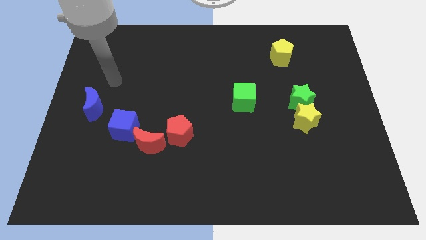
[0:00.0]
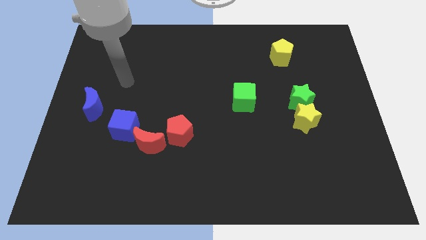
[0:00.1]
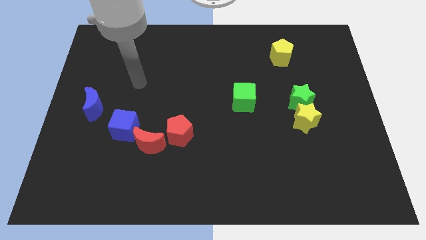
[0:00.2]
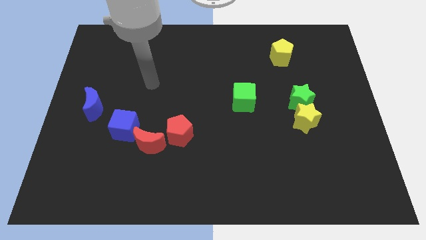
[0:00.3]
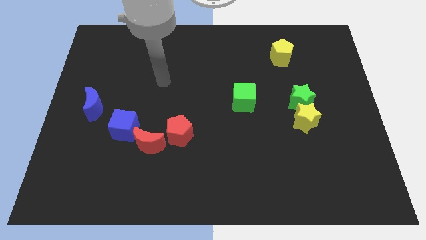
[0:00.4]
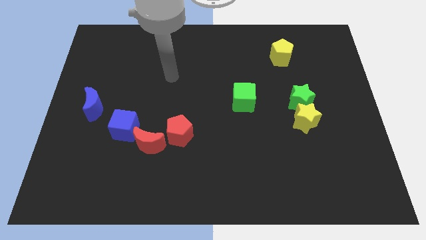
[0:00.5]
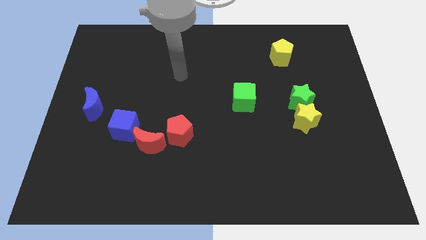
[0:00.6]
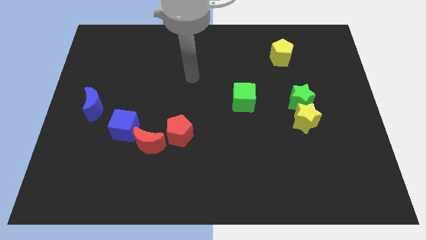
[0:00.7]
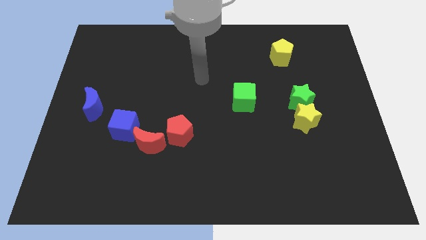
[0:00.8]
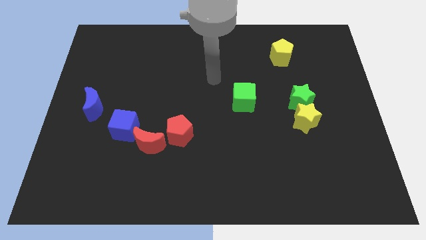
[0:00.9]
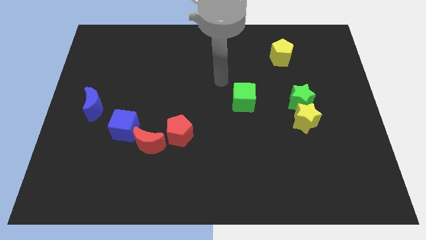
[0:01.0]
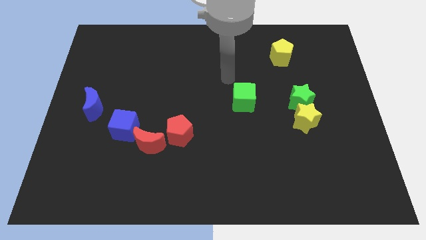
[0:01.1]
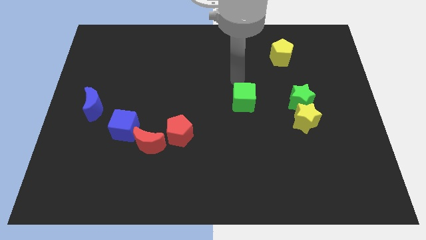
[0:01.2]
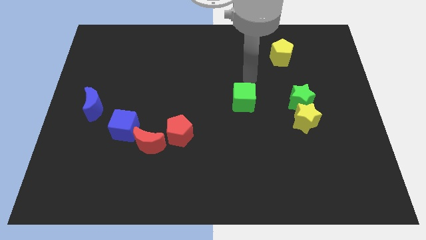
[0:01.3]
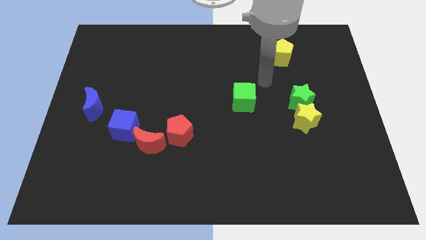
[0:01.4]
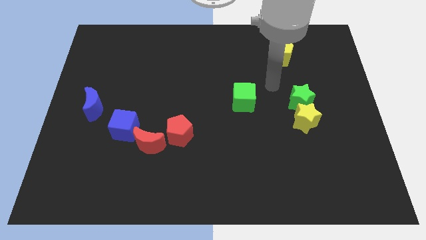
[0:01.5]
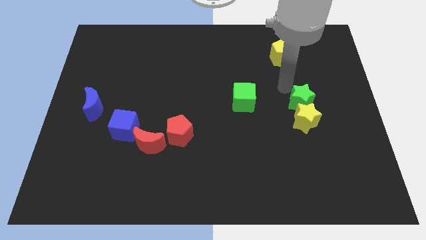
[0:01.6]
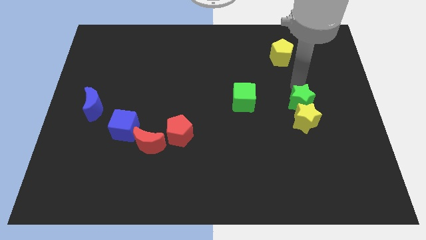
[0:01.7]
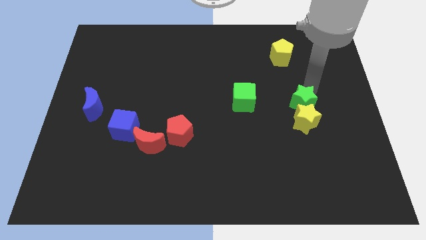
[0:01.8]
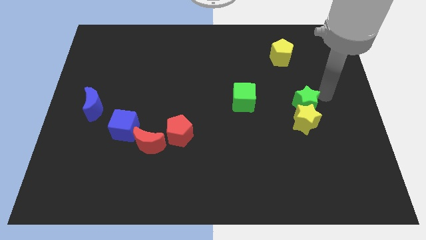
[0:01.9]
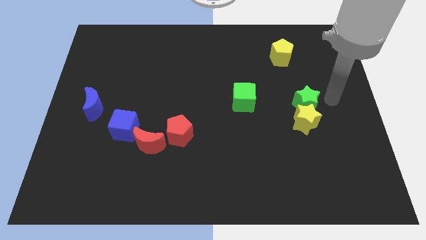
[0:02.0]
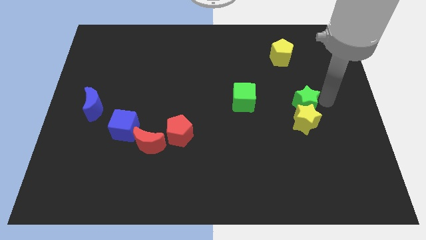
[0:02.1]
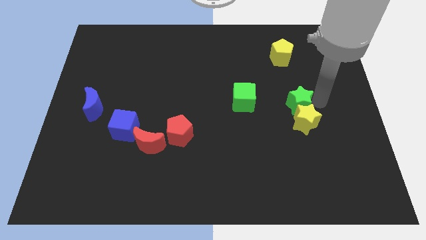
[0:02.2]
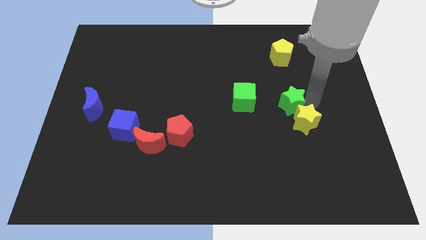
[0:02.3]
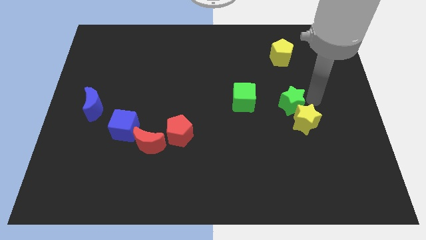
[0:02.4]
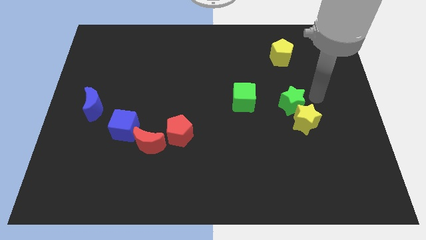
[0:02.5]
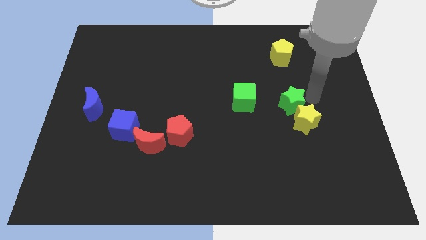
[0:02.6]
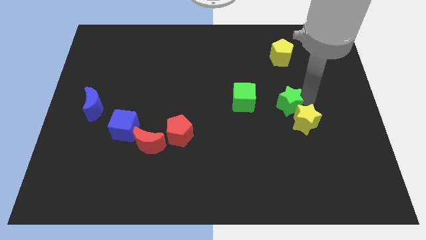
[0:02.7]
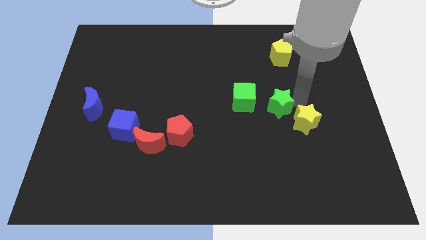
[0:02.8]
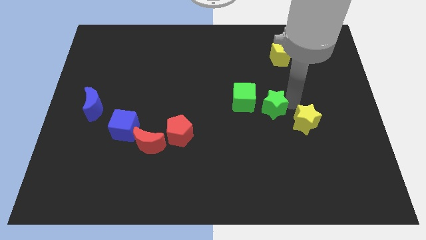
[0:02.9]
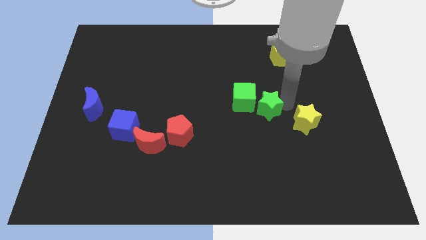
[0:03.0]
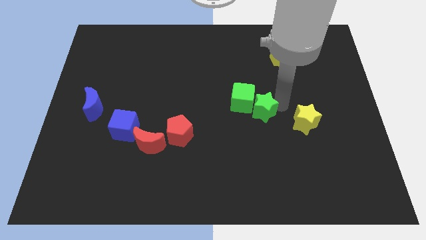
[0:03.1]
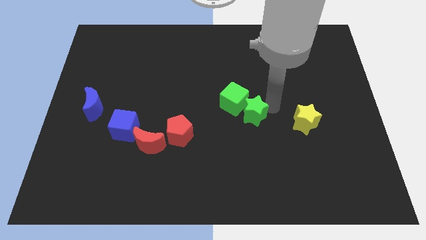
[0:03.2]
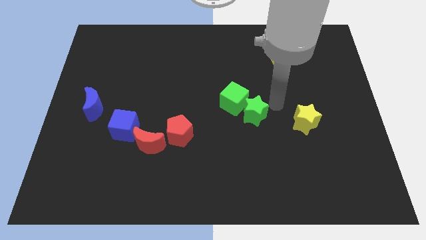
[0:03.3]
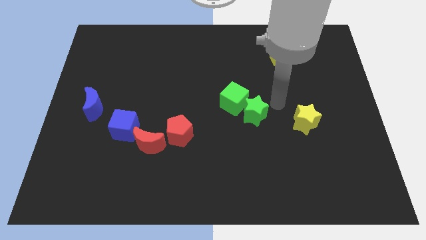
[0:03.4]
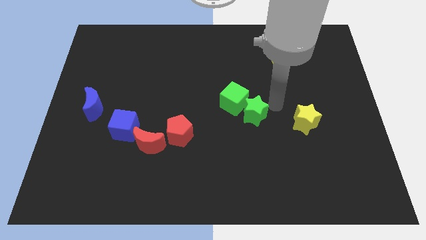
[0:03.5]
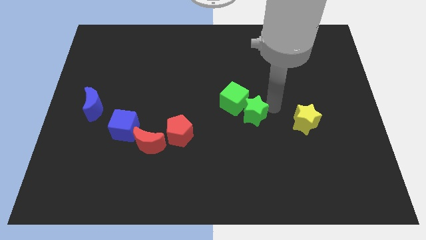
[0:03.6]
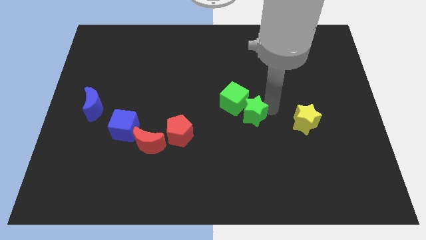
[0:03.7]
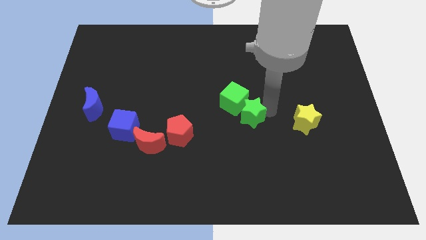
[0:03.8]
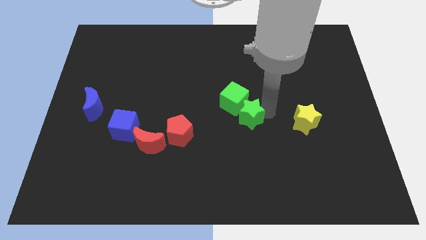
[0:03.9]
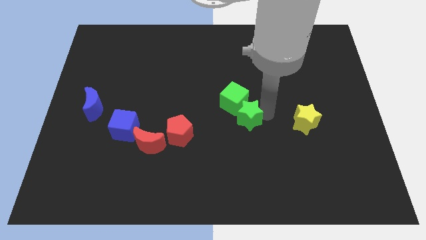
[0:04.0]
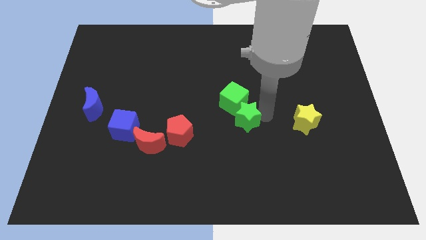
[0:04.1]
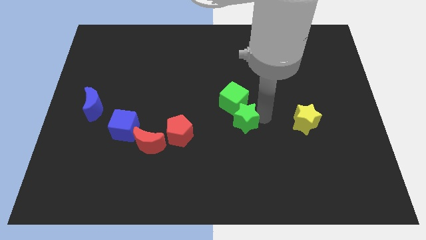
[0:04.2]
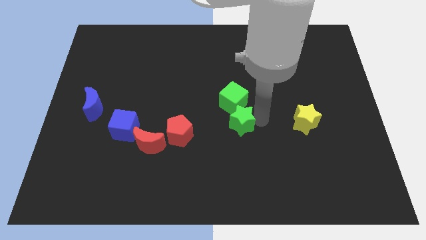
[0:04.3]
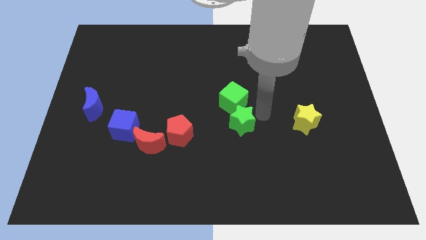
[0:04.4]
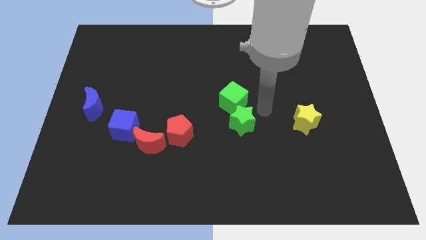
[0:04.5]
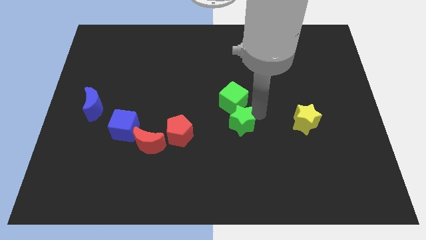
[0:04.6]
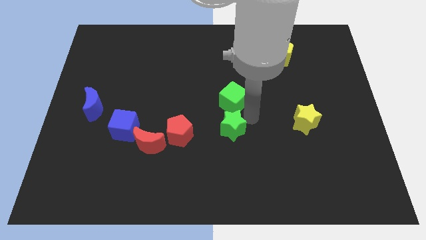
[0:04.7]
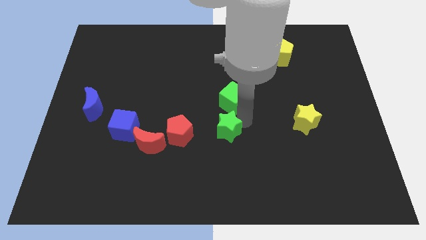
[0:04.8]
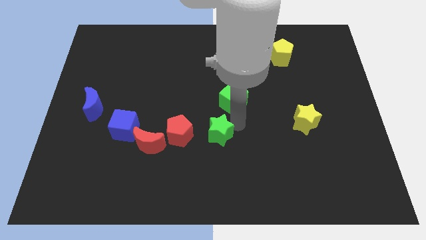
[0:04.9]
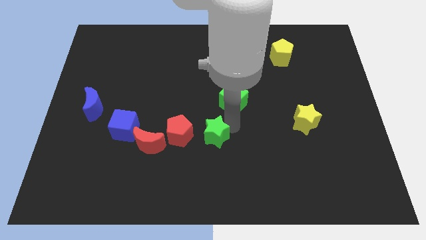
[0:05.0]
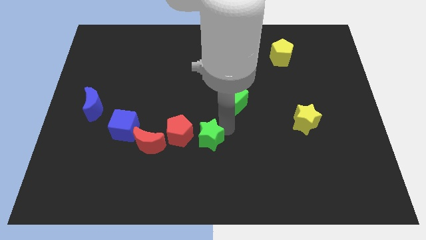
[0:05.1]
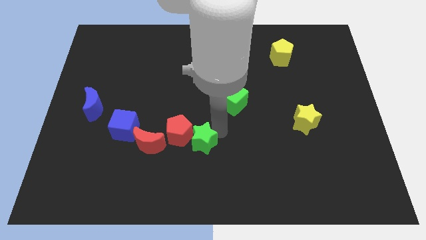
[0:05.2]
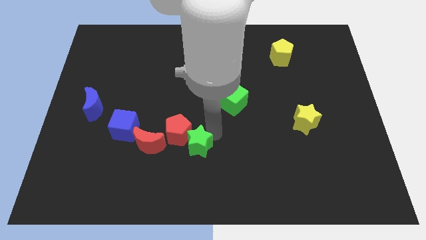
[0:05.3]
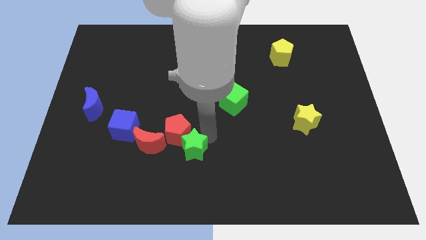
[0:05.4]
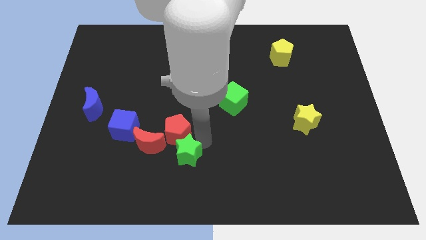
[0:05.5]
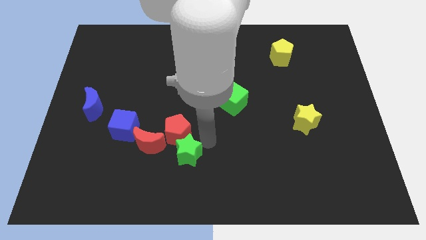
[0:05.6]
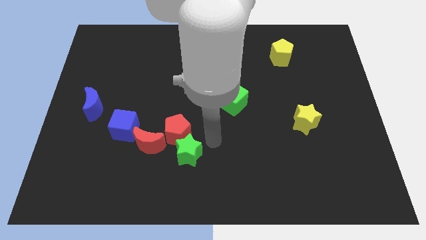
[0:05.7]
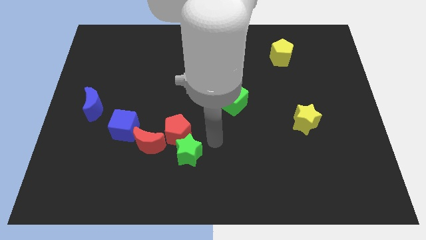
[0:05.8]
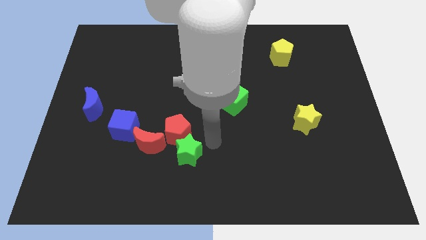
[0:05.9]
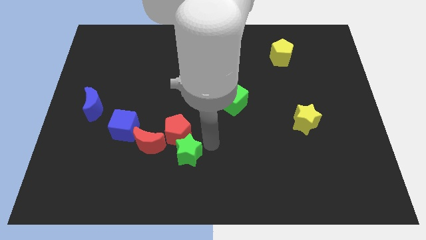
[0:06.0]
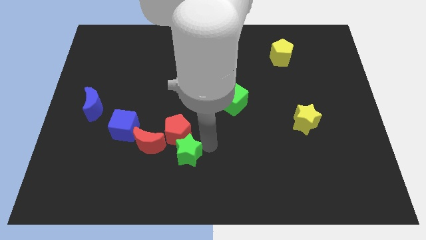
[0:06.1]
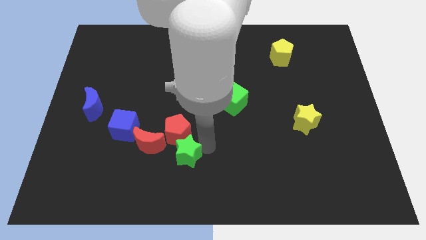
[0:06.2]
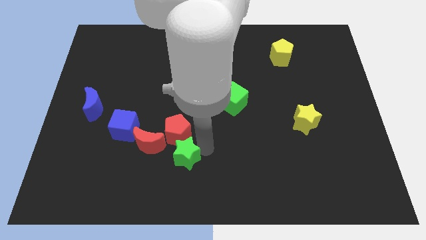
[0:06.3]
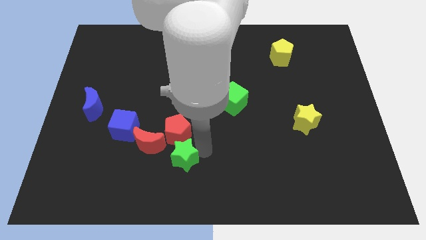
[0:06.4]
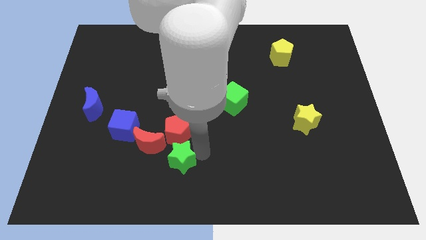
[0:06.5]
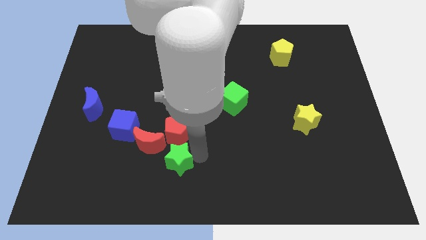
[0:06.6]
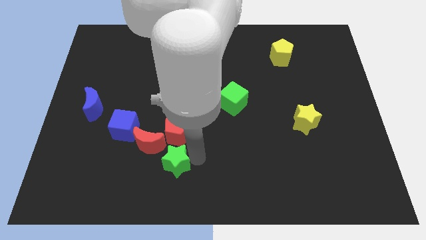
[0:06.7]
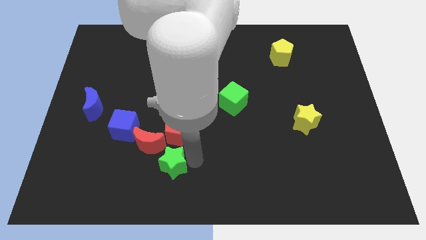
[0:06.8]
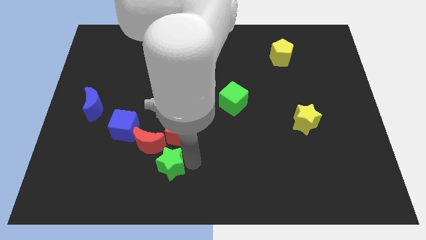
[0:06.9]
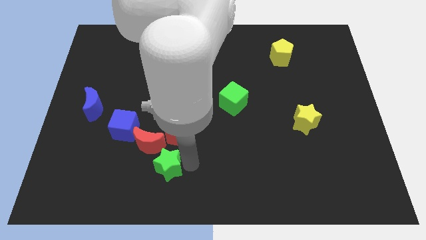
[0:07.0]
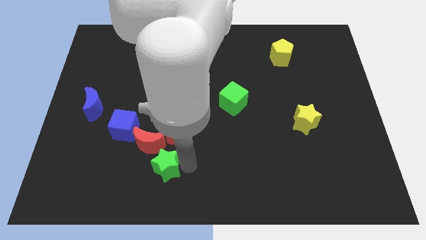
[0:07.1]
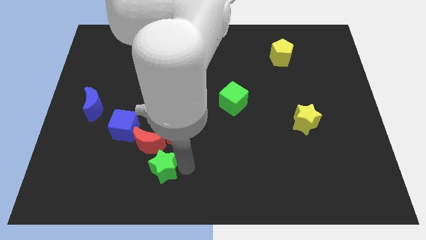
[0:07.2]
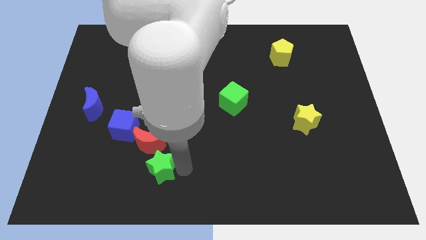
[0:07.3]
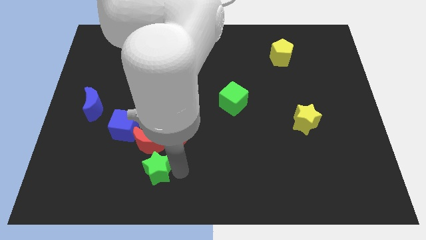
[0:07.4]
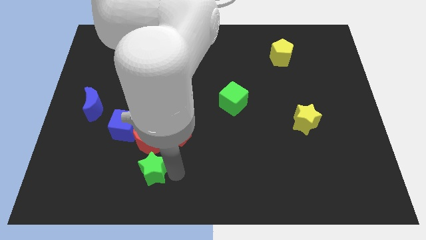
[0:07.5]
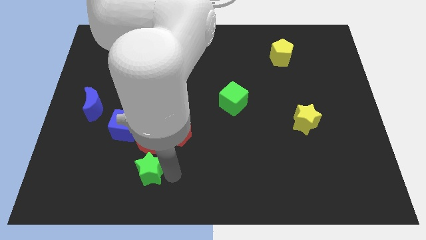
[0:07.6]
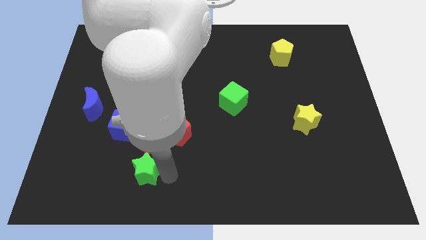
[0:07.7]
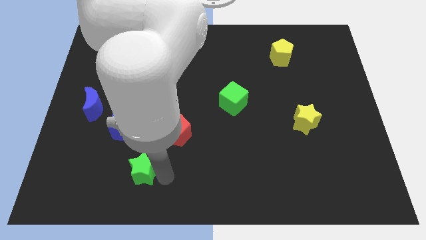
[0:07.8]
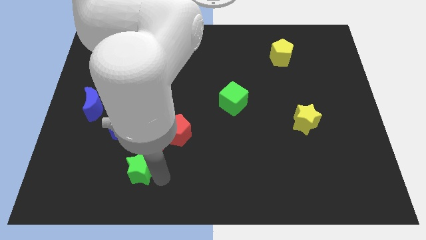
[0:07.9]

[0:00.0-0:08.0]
put the green star to the bottom side of the blue cube
